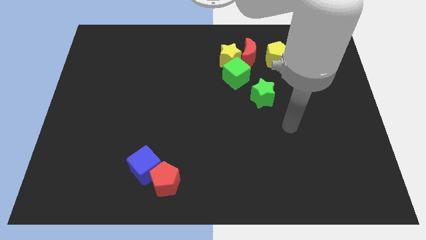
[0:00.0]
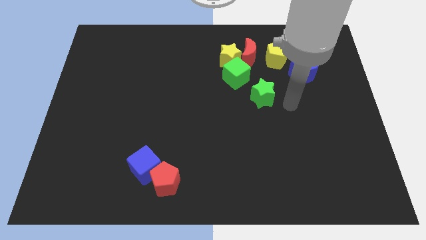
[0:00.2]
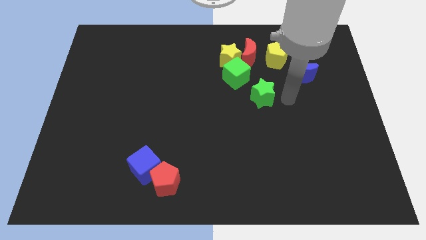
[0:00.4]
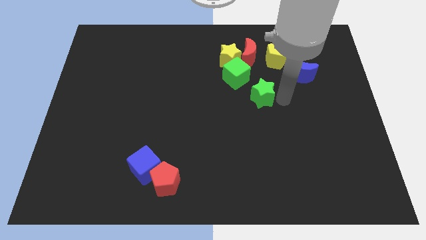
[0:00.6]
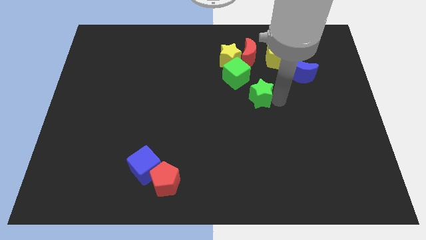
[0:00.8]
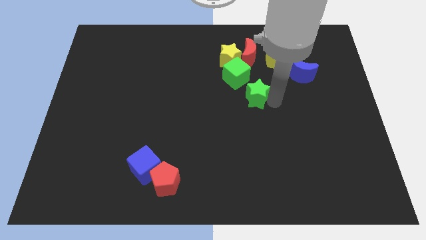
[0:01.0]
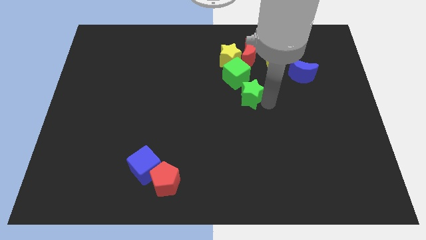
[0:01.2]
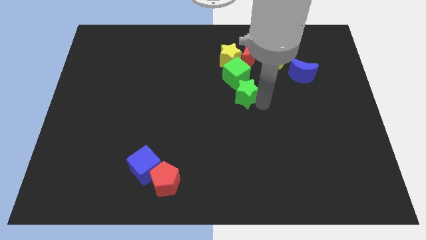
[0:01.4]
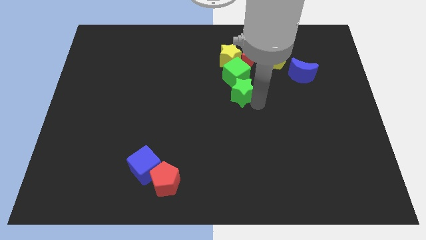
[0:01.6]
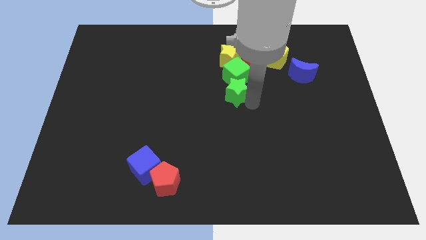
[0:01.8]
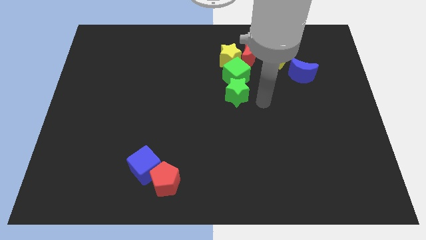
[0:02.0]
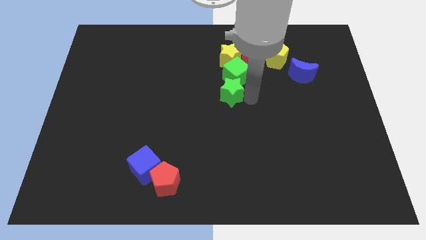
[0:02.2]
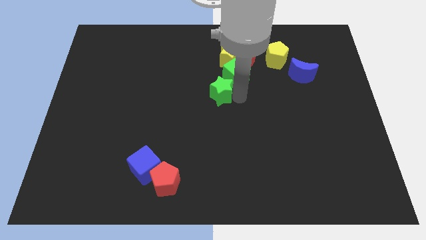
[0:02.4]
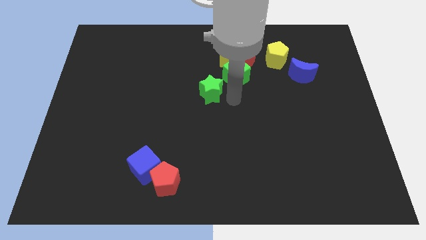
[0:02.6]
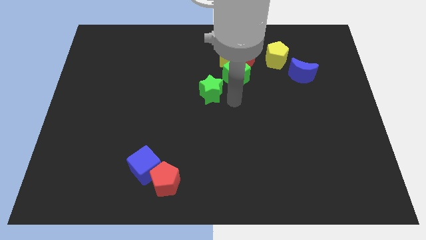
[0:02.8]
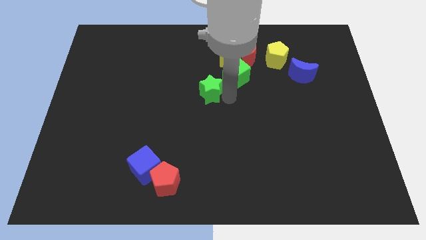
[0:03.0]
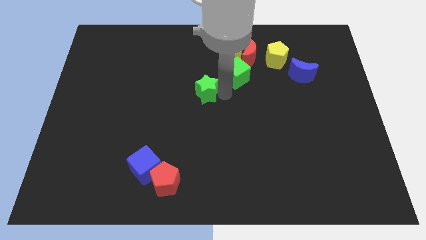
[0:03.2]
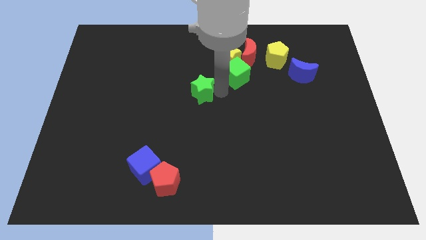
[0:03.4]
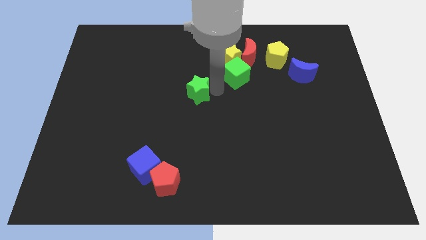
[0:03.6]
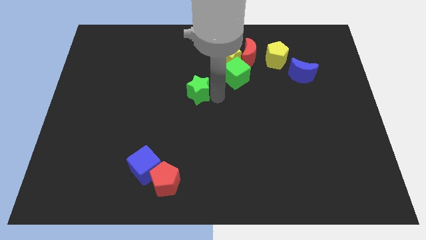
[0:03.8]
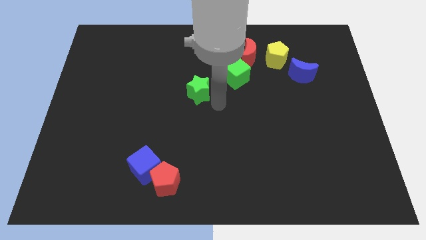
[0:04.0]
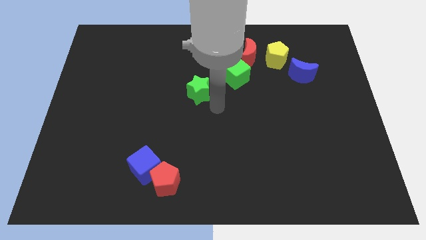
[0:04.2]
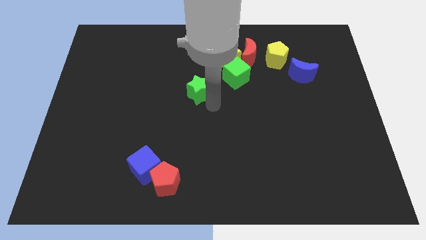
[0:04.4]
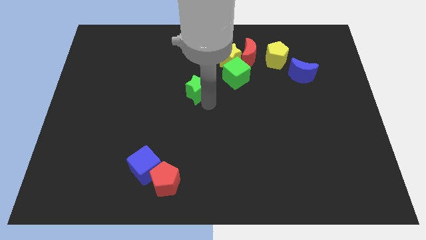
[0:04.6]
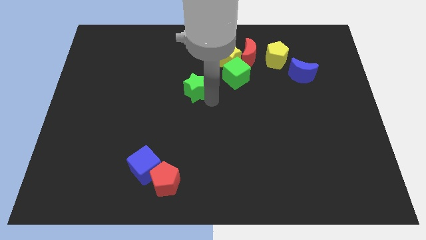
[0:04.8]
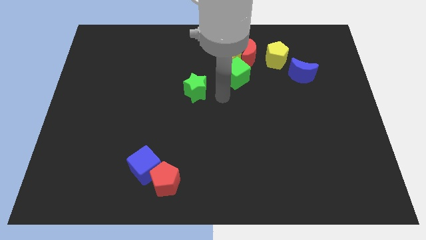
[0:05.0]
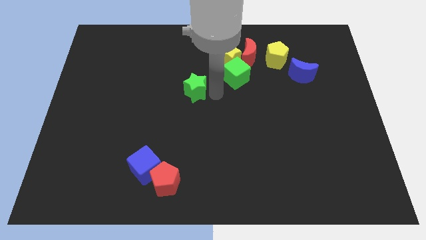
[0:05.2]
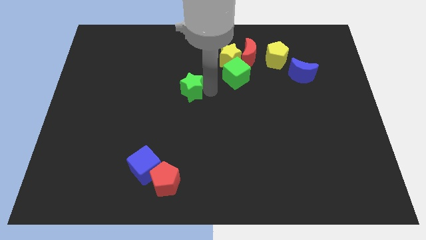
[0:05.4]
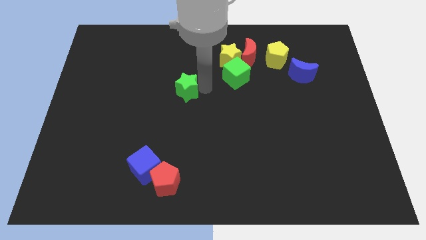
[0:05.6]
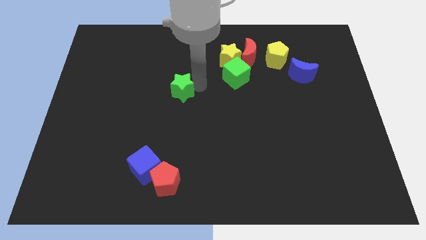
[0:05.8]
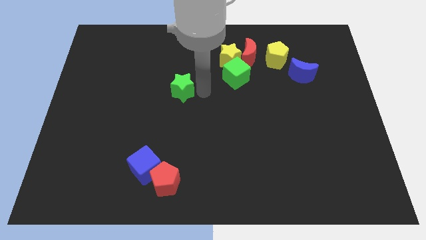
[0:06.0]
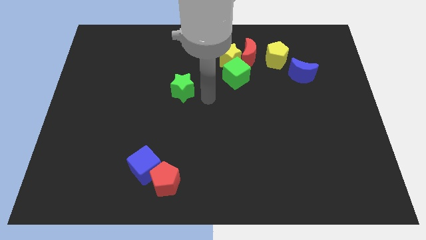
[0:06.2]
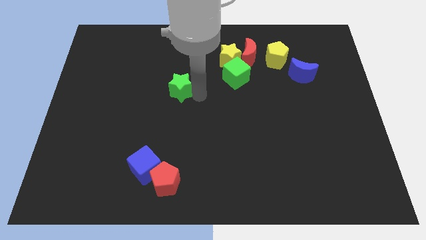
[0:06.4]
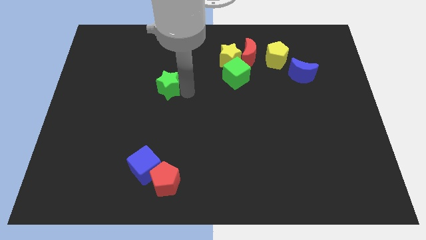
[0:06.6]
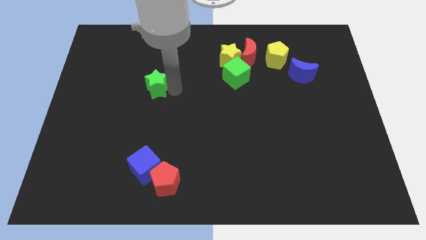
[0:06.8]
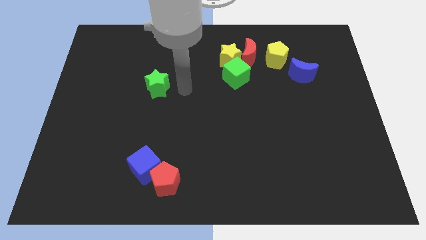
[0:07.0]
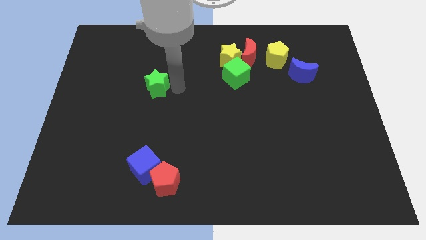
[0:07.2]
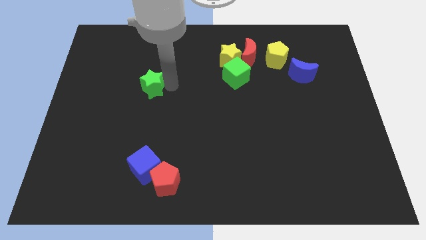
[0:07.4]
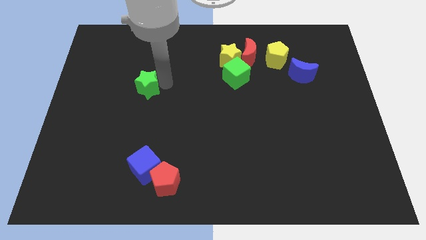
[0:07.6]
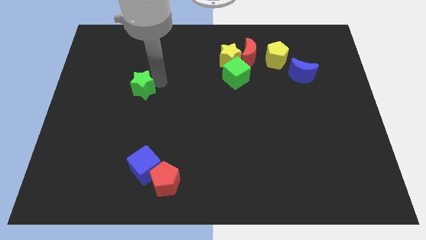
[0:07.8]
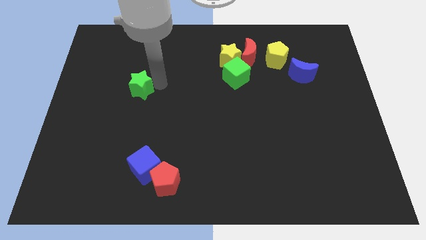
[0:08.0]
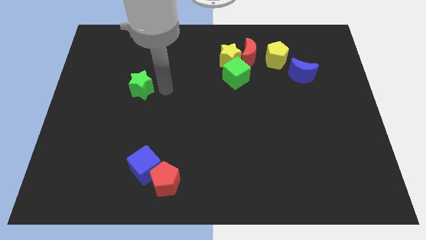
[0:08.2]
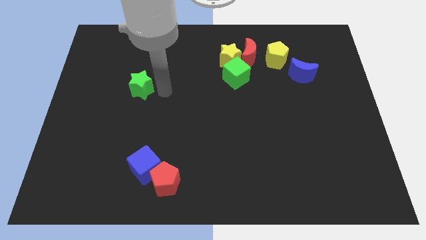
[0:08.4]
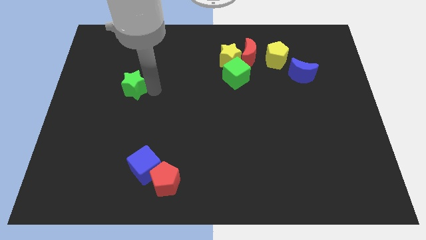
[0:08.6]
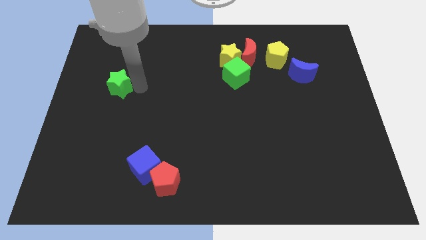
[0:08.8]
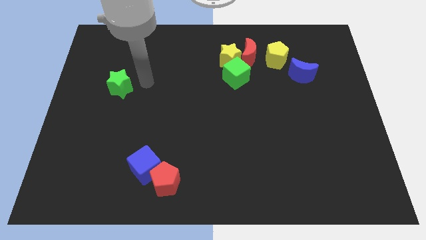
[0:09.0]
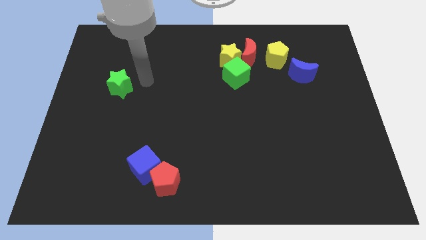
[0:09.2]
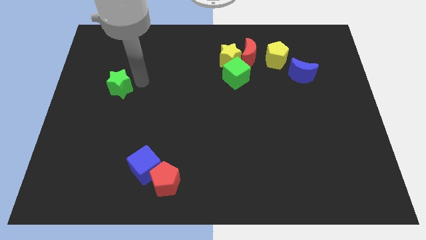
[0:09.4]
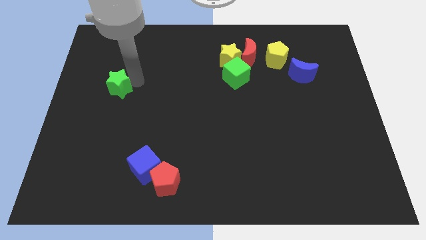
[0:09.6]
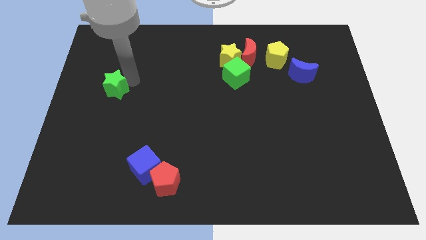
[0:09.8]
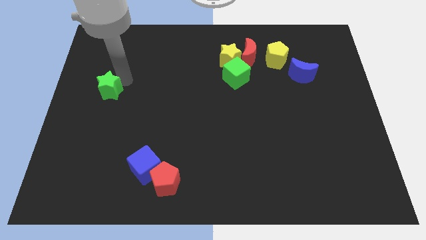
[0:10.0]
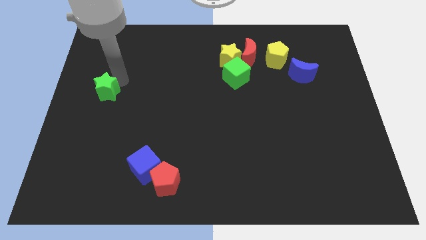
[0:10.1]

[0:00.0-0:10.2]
move the green star to the center left

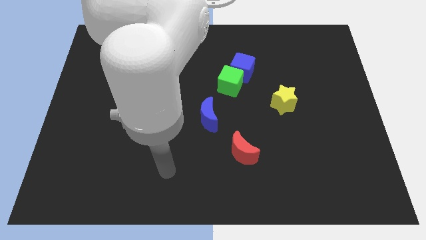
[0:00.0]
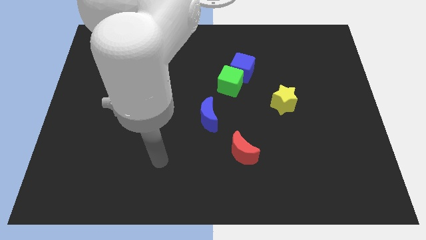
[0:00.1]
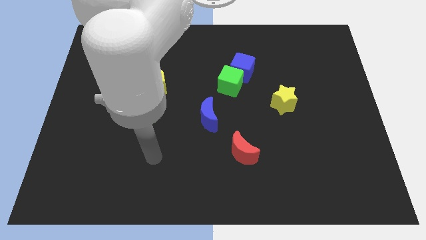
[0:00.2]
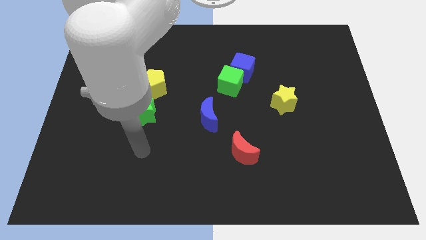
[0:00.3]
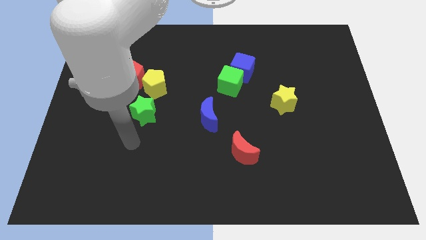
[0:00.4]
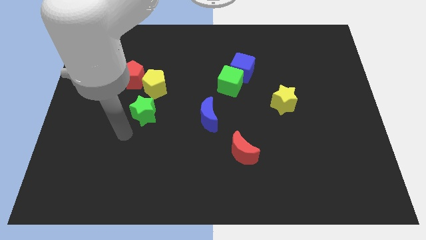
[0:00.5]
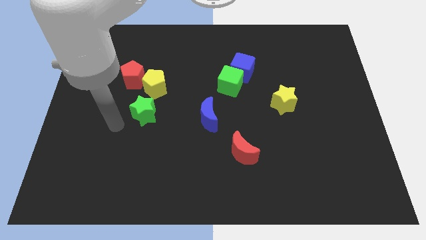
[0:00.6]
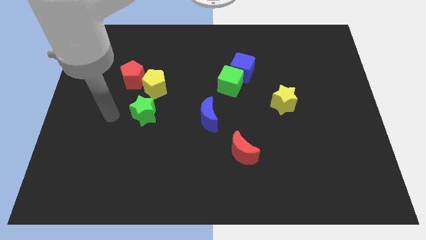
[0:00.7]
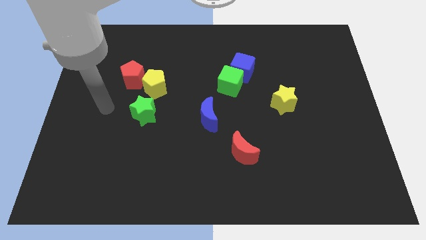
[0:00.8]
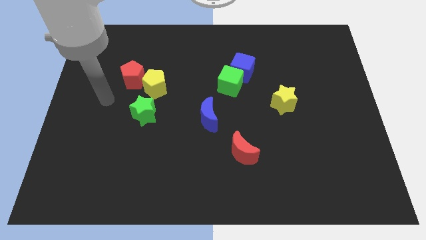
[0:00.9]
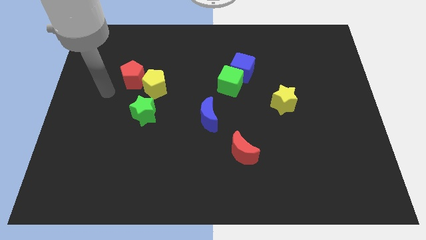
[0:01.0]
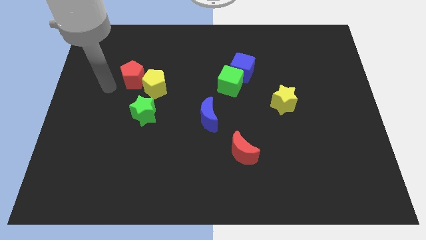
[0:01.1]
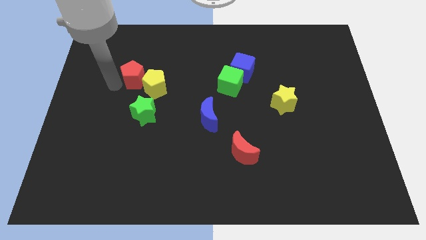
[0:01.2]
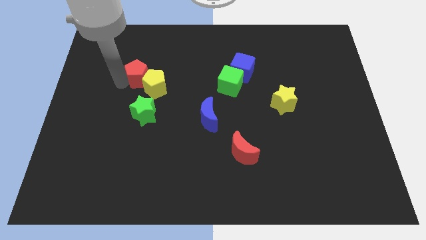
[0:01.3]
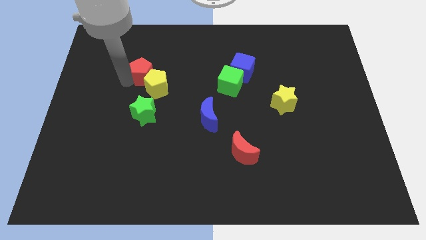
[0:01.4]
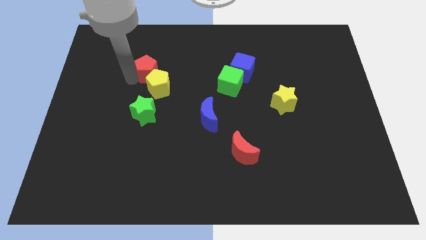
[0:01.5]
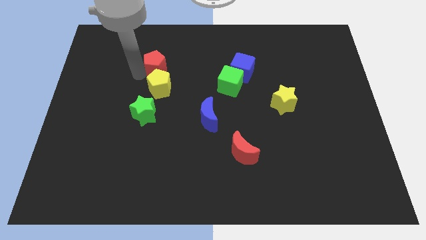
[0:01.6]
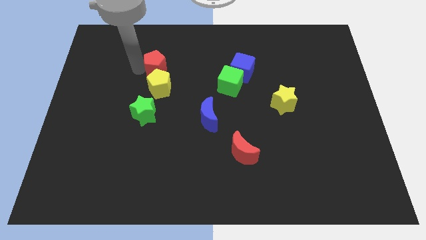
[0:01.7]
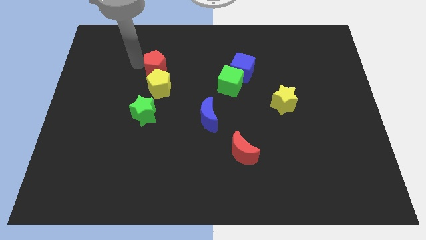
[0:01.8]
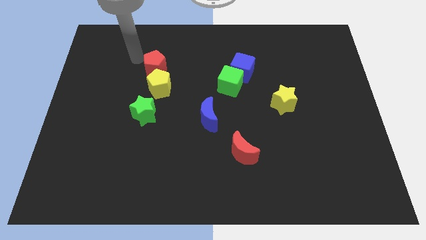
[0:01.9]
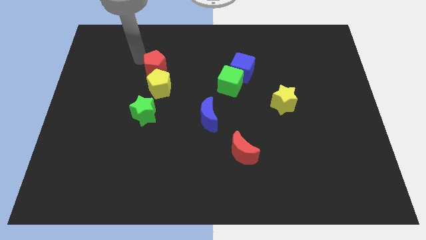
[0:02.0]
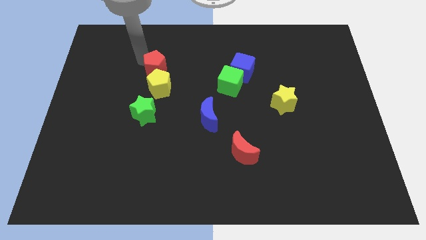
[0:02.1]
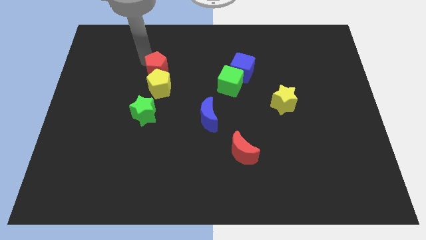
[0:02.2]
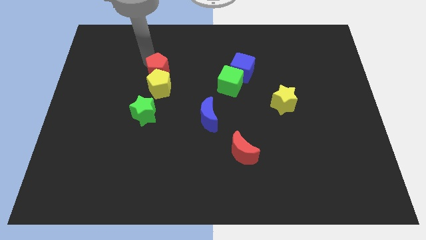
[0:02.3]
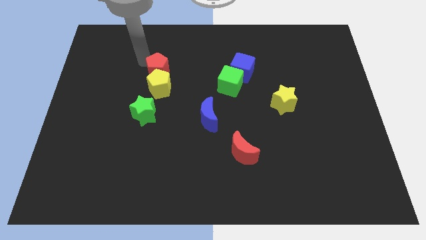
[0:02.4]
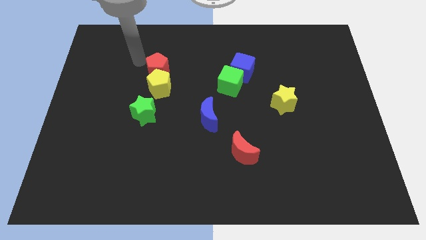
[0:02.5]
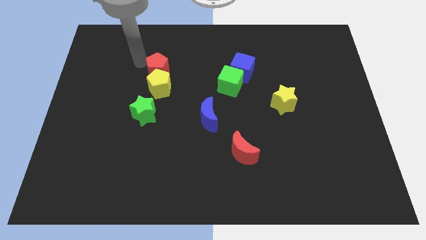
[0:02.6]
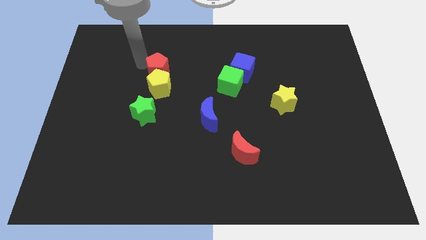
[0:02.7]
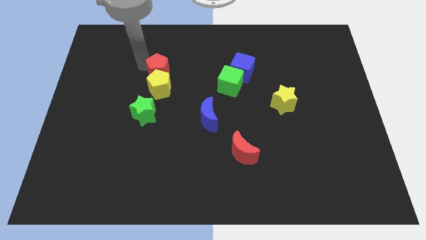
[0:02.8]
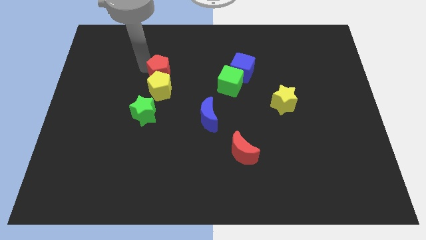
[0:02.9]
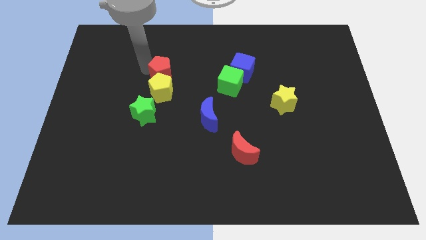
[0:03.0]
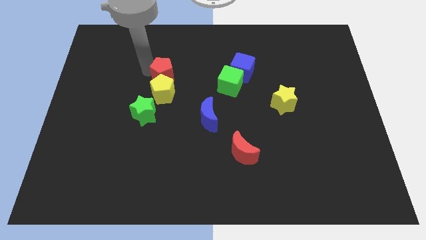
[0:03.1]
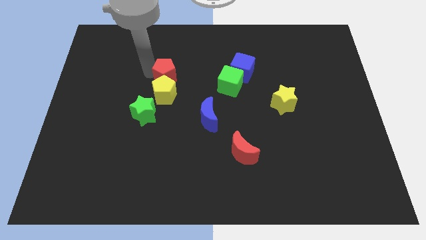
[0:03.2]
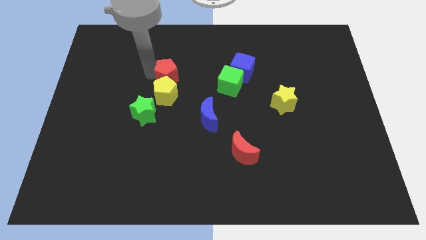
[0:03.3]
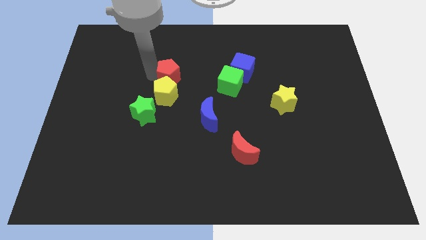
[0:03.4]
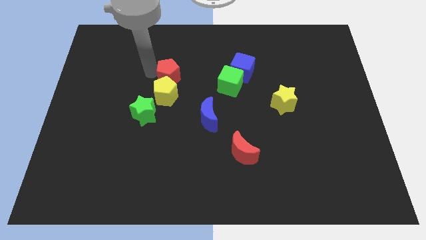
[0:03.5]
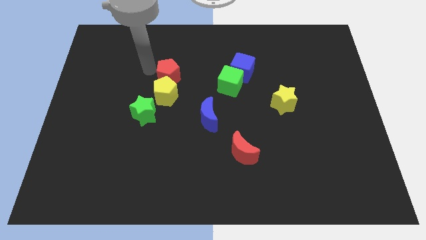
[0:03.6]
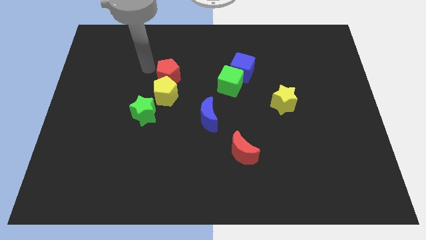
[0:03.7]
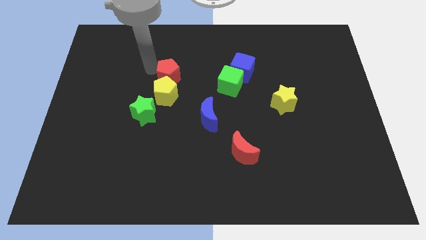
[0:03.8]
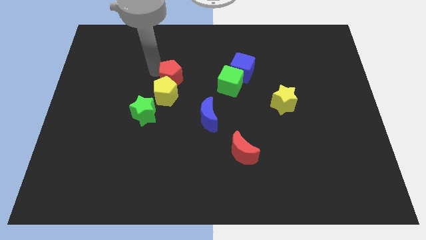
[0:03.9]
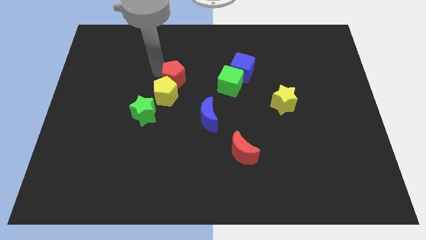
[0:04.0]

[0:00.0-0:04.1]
put the red pentagon to the center
